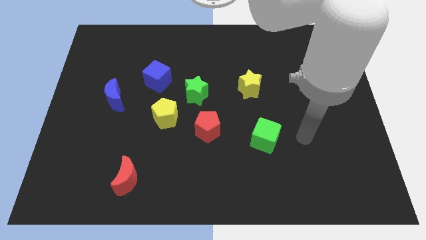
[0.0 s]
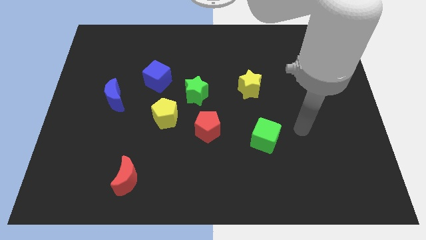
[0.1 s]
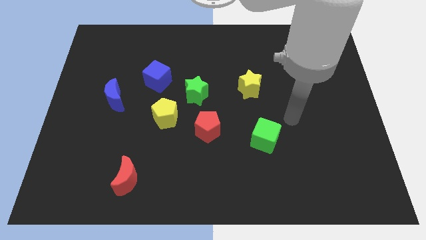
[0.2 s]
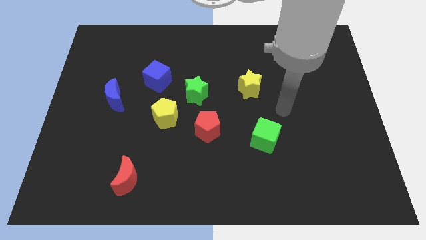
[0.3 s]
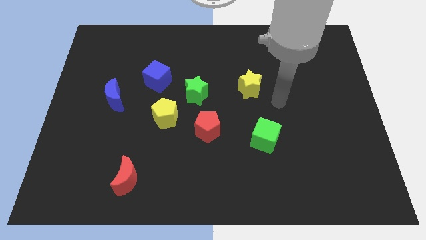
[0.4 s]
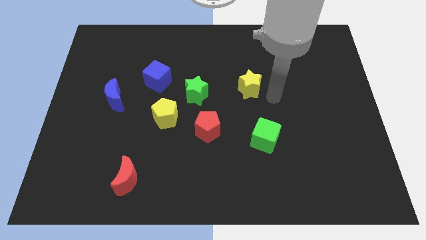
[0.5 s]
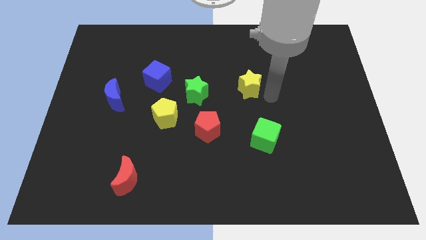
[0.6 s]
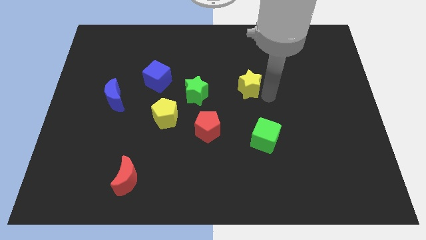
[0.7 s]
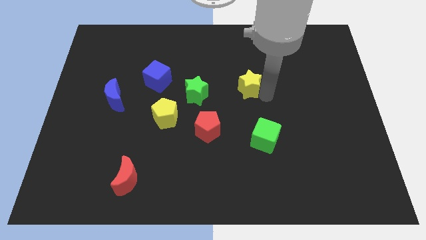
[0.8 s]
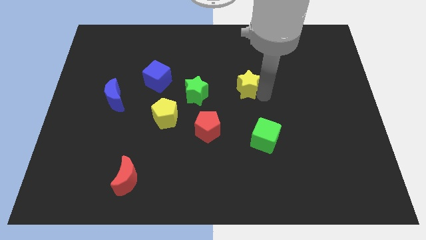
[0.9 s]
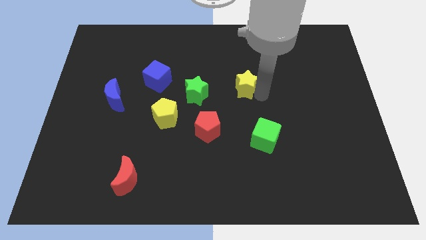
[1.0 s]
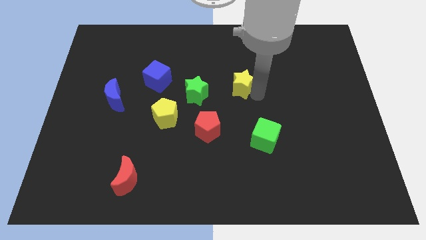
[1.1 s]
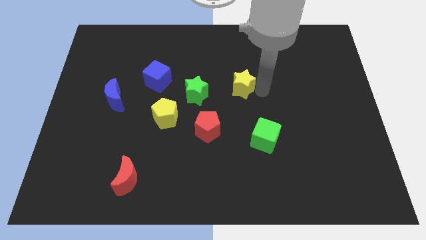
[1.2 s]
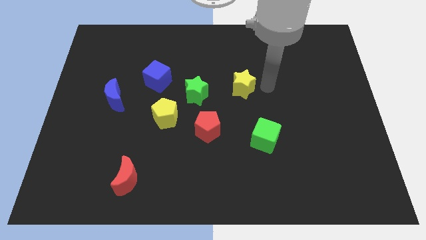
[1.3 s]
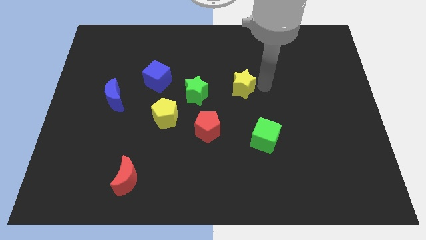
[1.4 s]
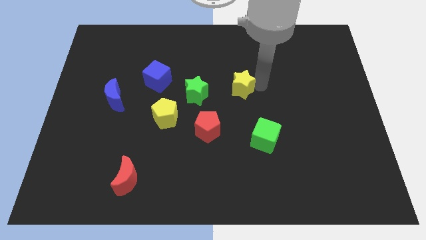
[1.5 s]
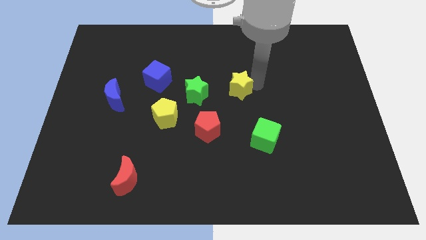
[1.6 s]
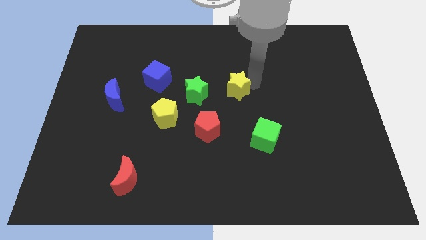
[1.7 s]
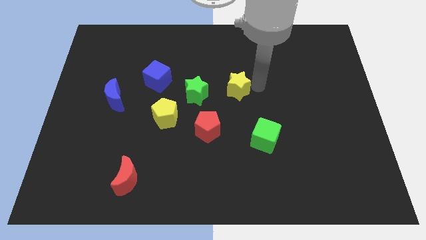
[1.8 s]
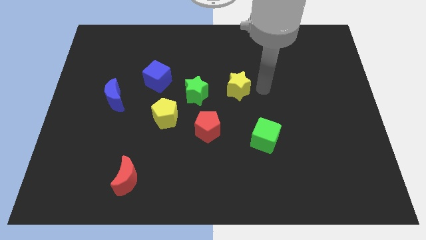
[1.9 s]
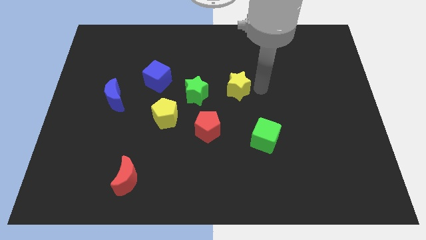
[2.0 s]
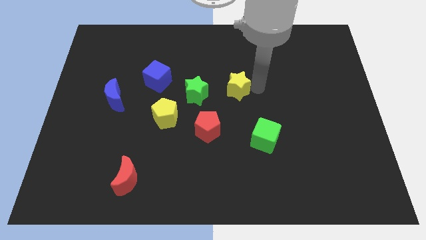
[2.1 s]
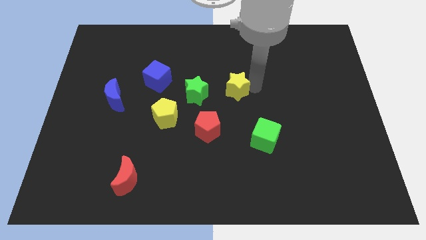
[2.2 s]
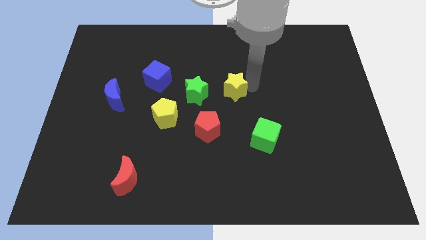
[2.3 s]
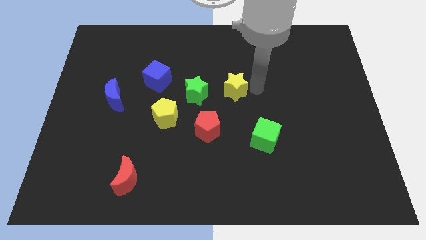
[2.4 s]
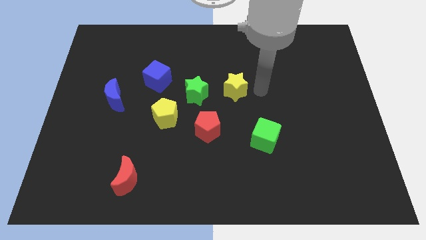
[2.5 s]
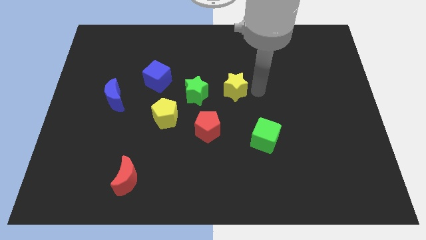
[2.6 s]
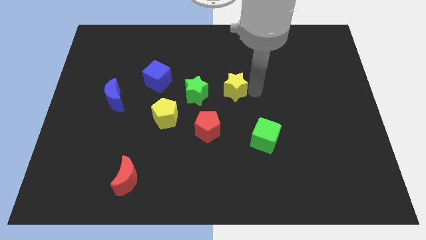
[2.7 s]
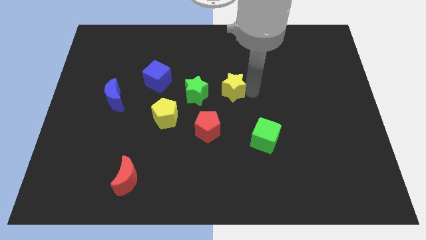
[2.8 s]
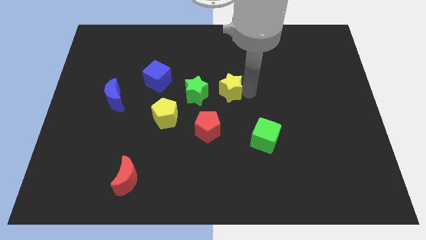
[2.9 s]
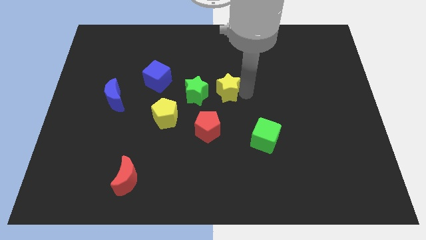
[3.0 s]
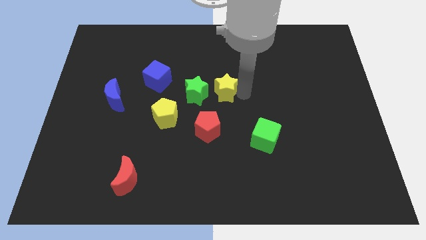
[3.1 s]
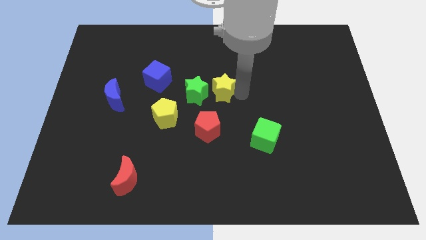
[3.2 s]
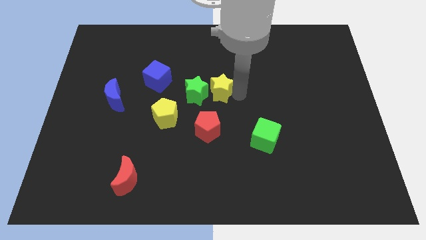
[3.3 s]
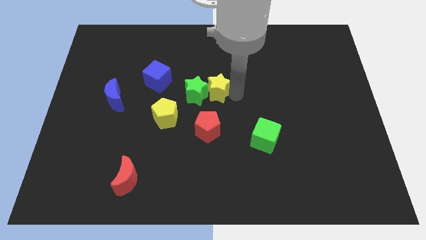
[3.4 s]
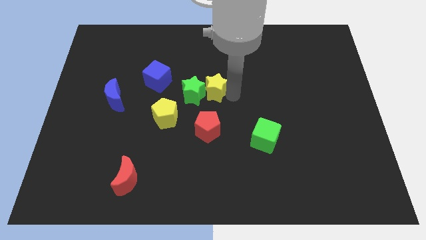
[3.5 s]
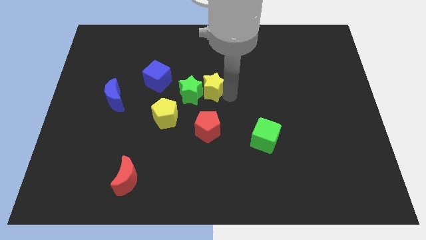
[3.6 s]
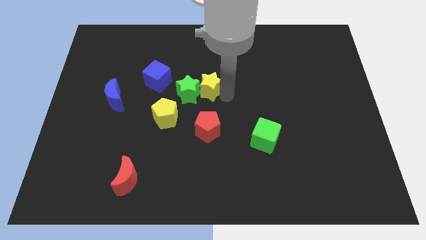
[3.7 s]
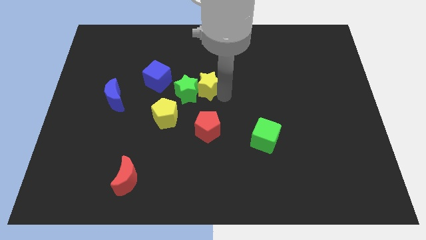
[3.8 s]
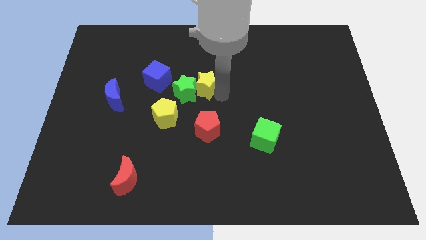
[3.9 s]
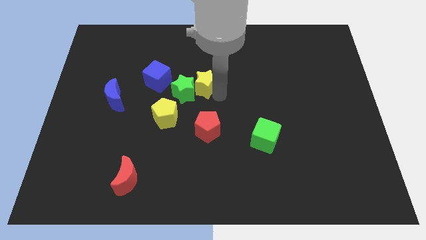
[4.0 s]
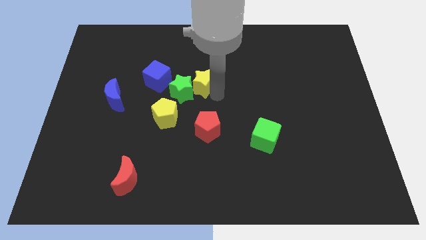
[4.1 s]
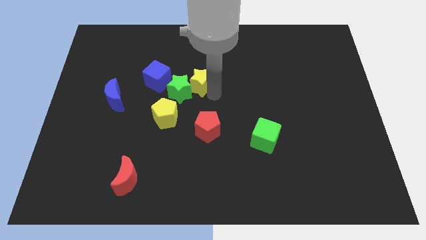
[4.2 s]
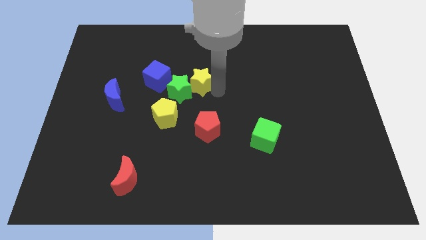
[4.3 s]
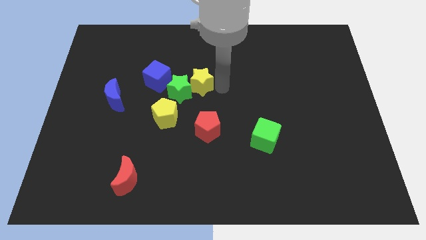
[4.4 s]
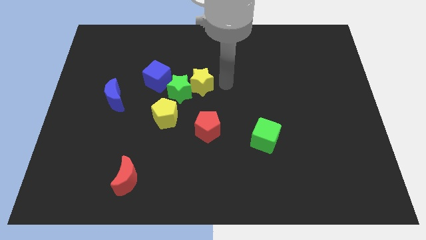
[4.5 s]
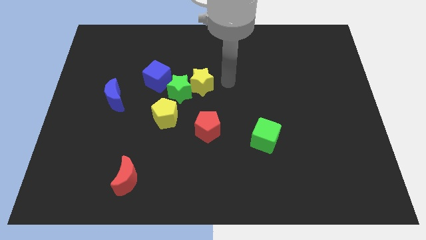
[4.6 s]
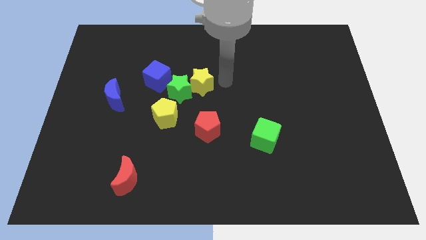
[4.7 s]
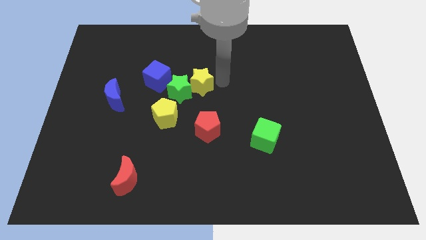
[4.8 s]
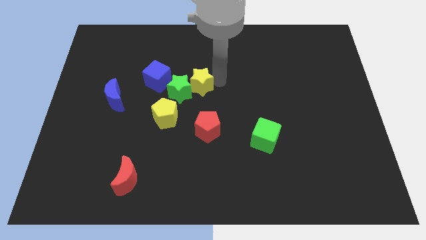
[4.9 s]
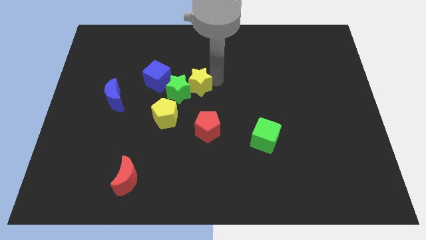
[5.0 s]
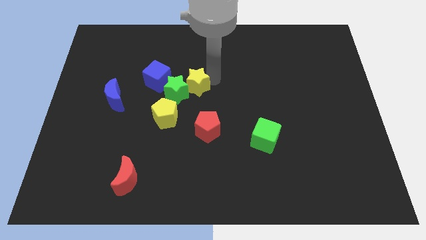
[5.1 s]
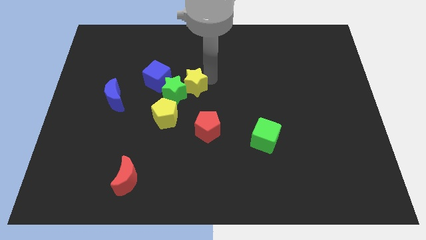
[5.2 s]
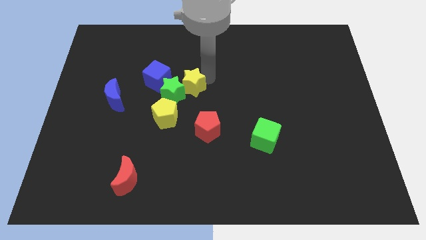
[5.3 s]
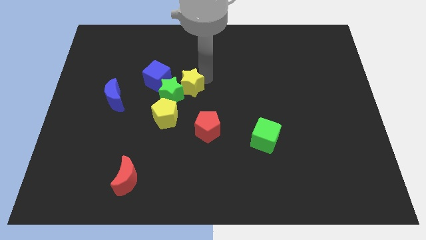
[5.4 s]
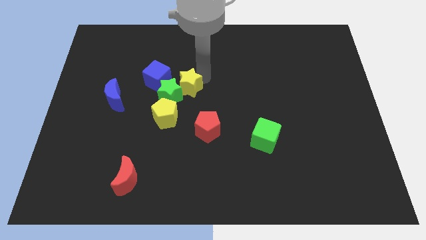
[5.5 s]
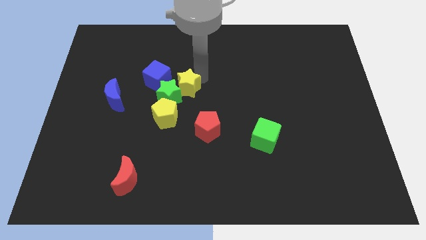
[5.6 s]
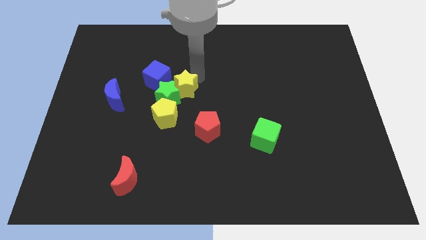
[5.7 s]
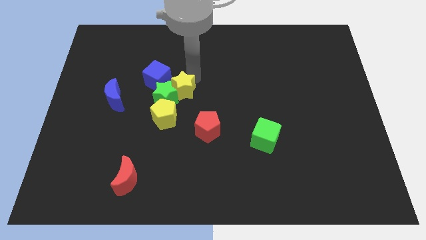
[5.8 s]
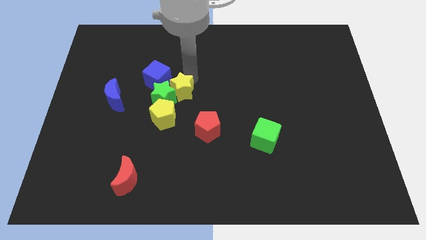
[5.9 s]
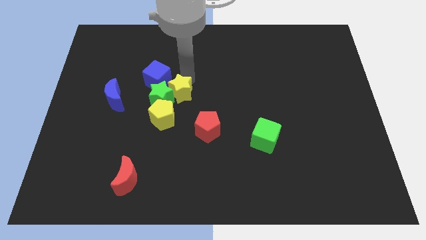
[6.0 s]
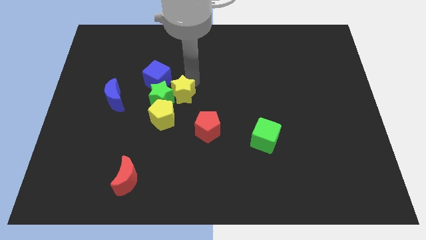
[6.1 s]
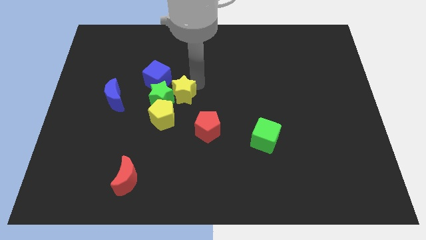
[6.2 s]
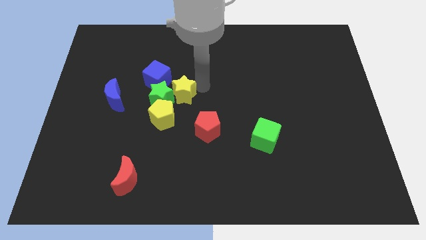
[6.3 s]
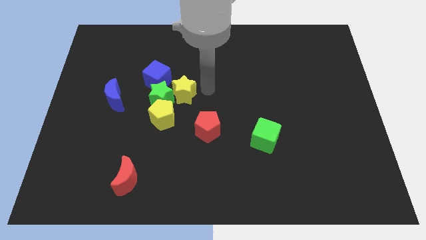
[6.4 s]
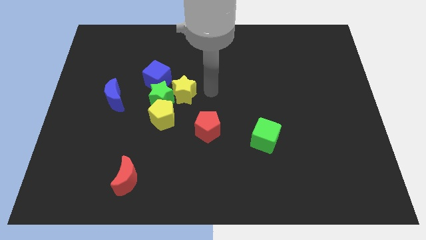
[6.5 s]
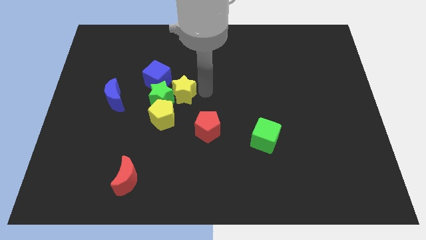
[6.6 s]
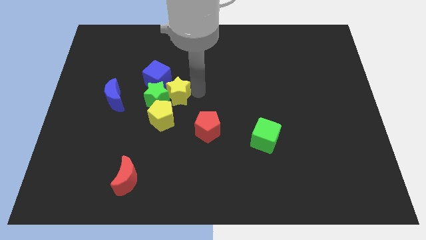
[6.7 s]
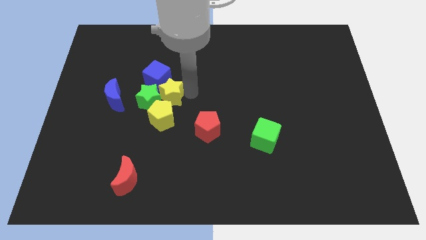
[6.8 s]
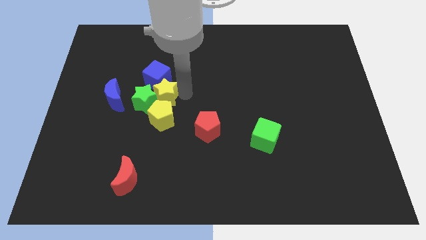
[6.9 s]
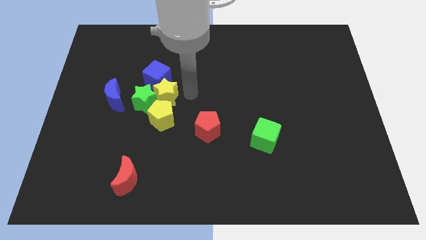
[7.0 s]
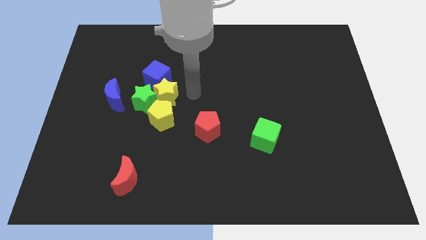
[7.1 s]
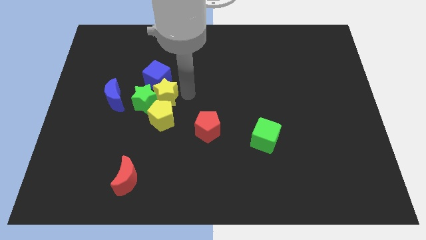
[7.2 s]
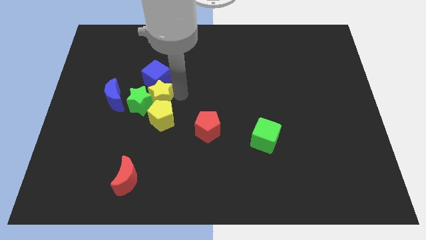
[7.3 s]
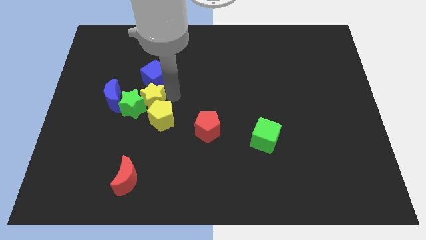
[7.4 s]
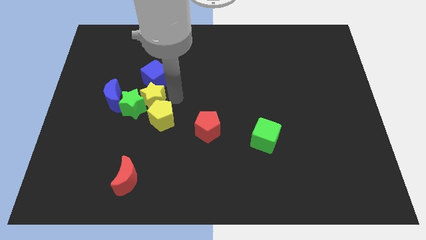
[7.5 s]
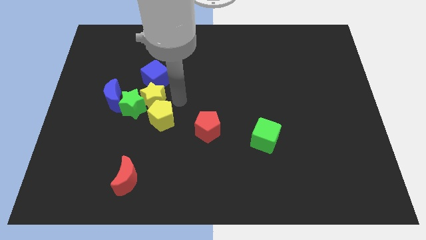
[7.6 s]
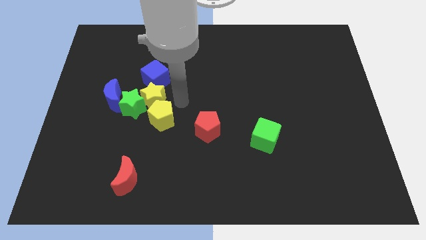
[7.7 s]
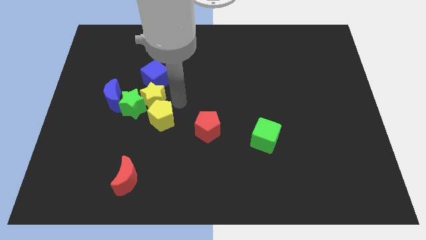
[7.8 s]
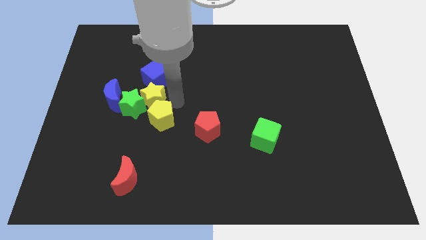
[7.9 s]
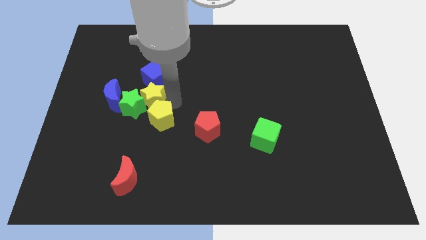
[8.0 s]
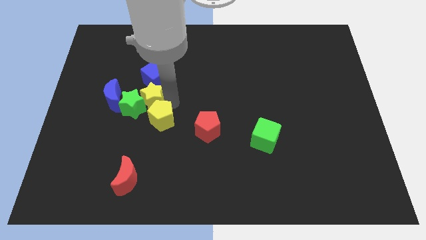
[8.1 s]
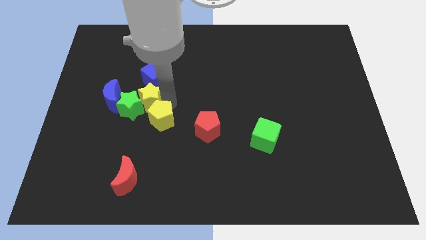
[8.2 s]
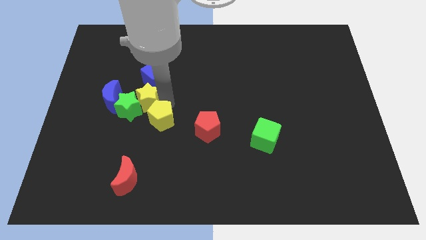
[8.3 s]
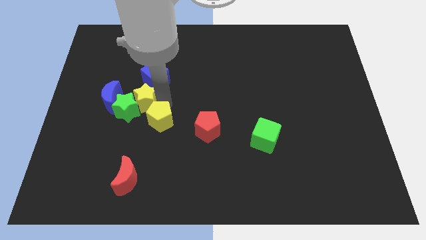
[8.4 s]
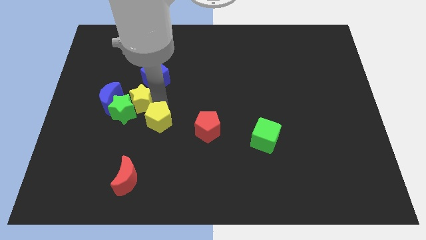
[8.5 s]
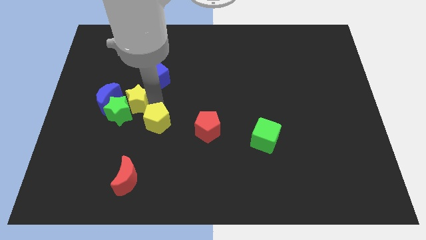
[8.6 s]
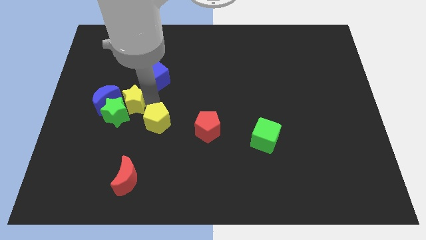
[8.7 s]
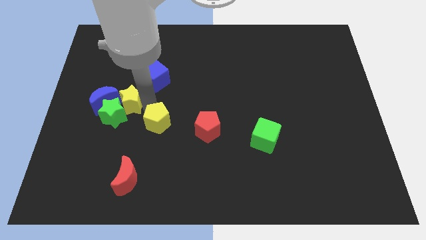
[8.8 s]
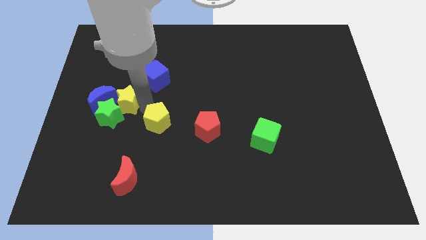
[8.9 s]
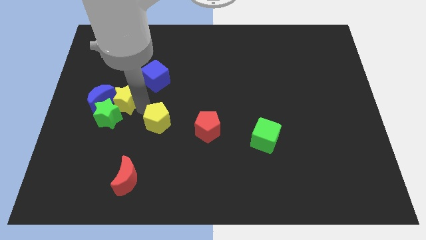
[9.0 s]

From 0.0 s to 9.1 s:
move the yellow star to the blue moon
